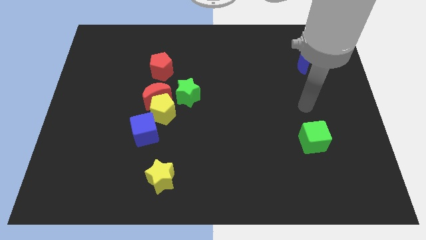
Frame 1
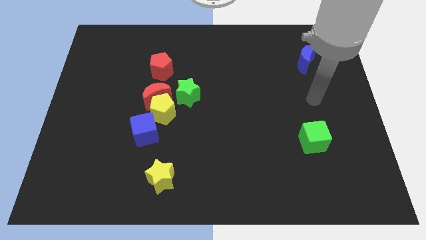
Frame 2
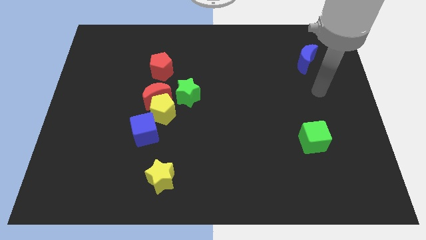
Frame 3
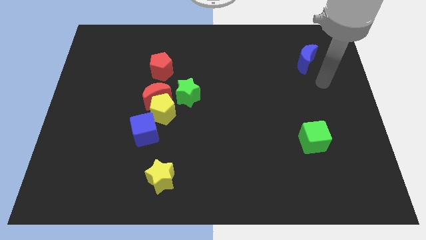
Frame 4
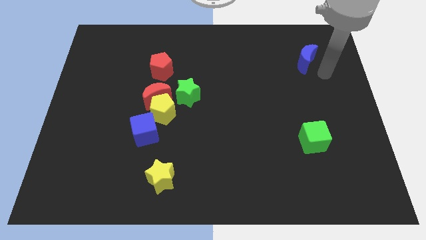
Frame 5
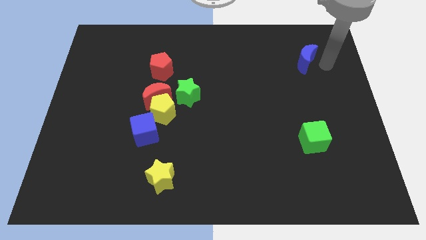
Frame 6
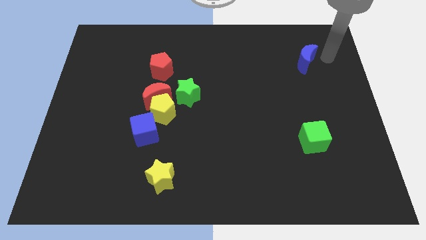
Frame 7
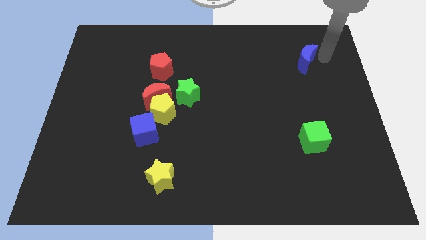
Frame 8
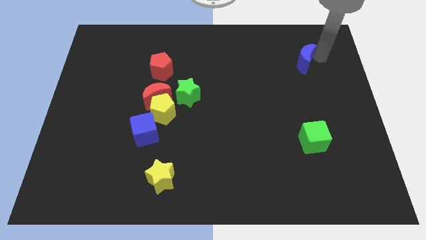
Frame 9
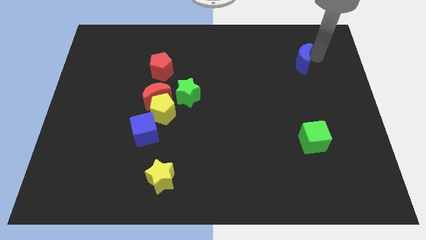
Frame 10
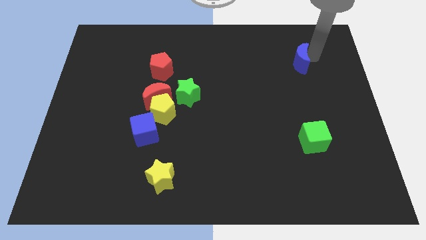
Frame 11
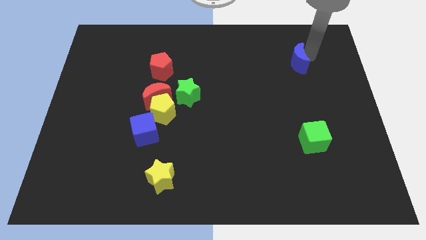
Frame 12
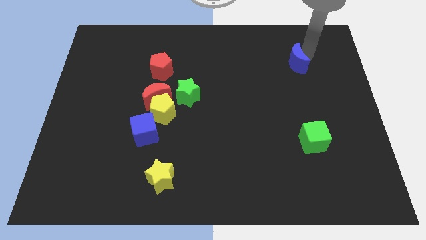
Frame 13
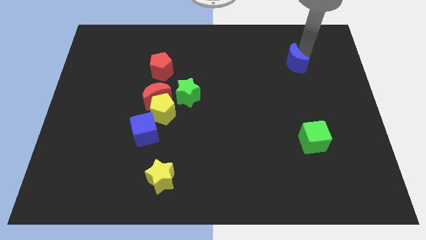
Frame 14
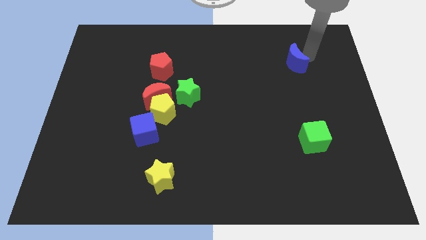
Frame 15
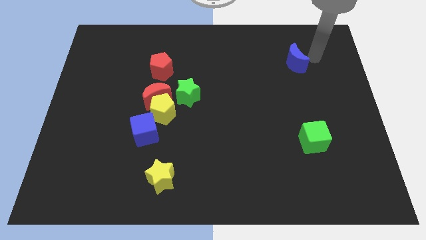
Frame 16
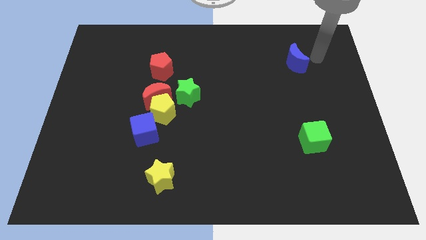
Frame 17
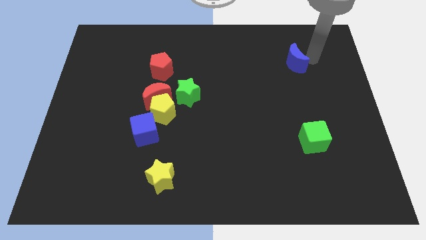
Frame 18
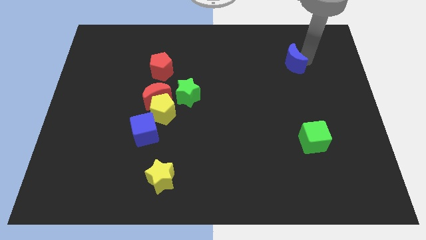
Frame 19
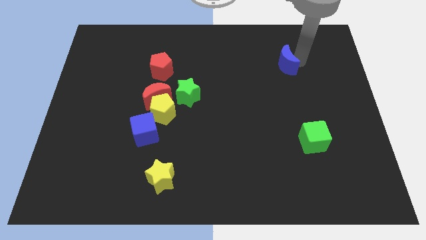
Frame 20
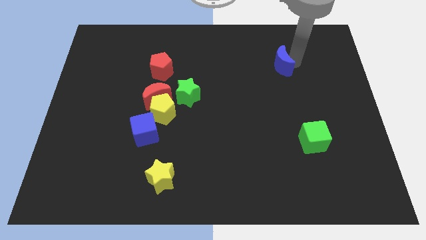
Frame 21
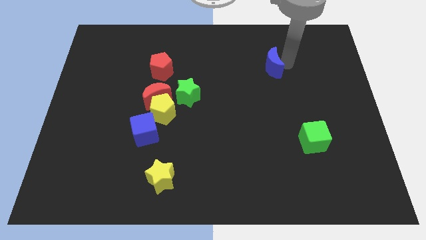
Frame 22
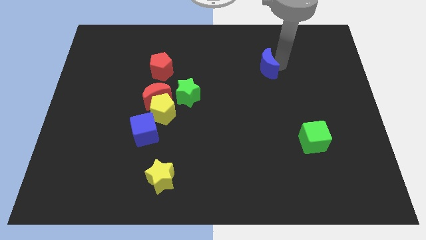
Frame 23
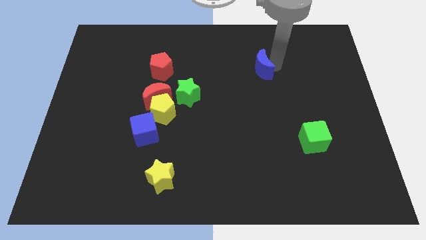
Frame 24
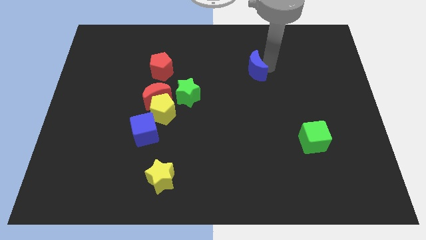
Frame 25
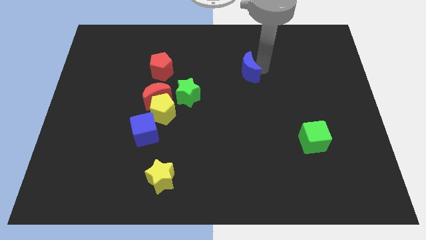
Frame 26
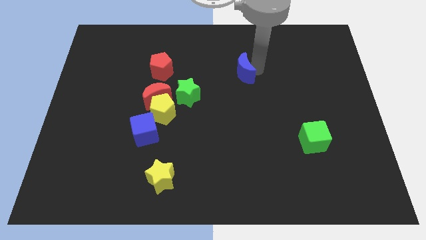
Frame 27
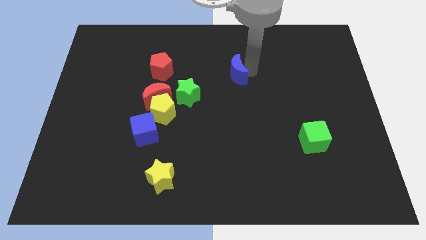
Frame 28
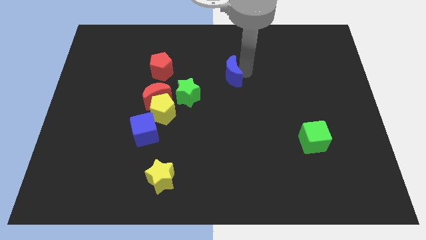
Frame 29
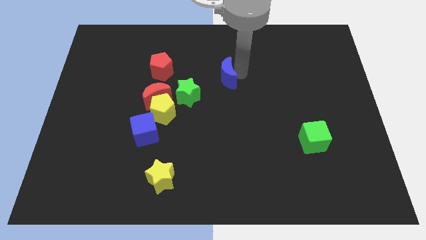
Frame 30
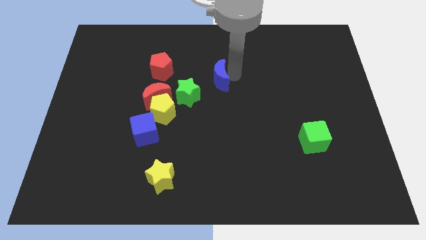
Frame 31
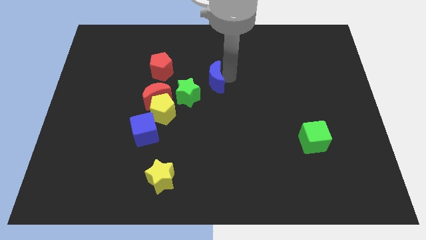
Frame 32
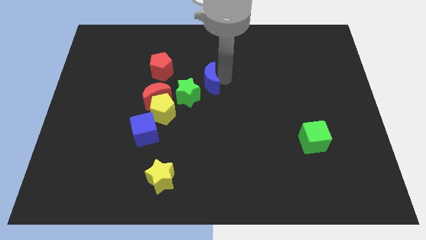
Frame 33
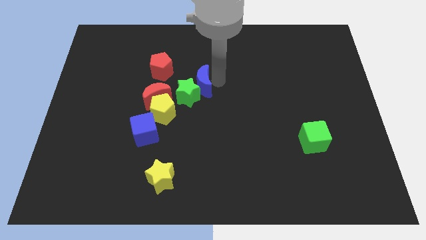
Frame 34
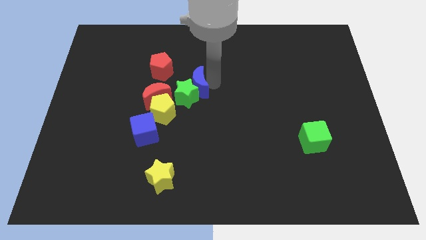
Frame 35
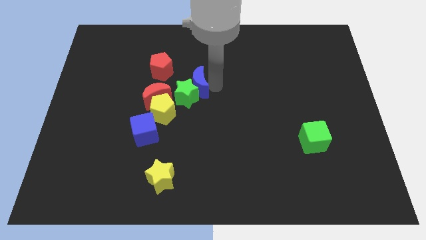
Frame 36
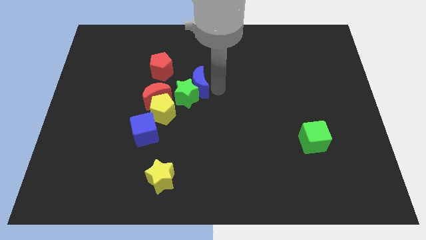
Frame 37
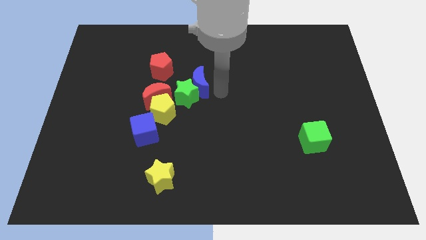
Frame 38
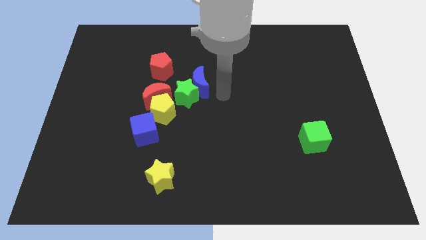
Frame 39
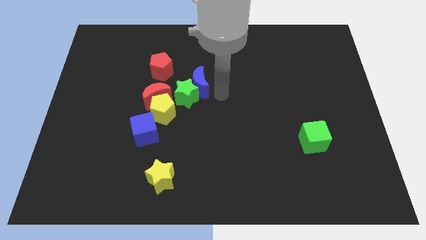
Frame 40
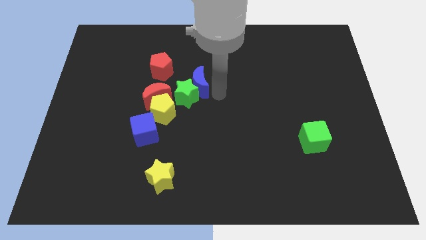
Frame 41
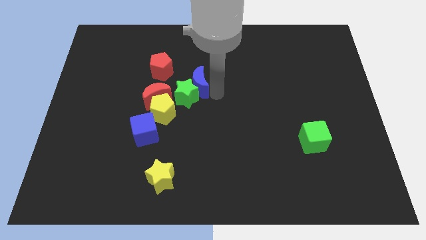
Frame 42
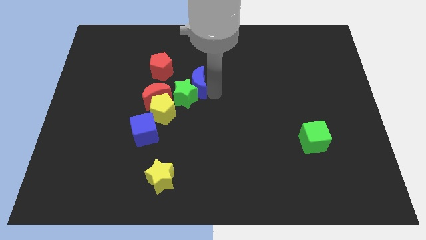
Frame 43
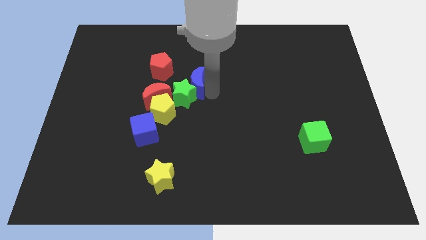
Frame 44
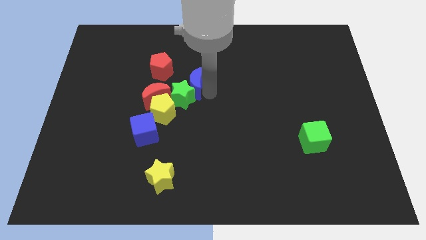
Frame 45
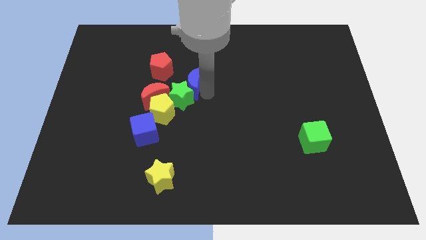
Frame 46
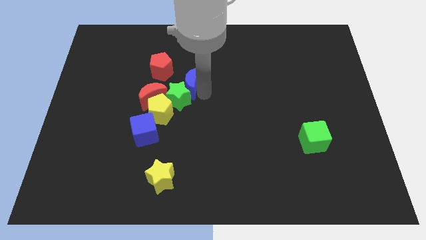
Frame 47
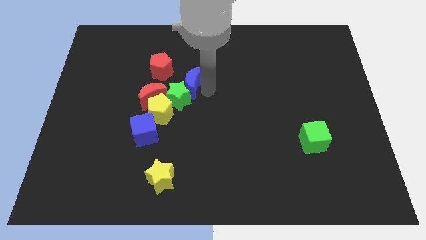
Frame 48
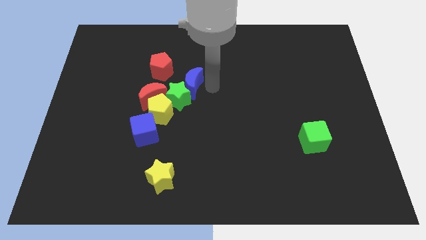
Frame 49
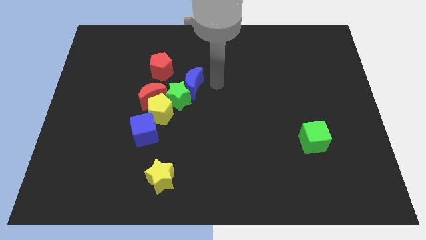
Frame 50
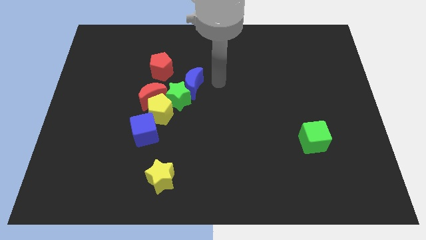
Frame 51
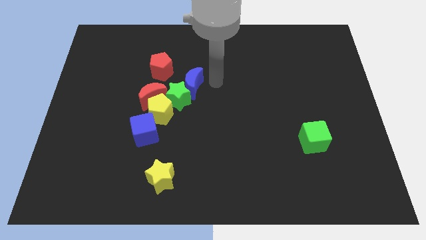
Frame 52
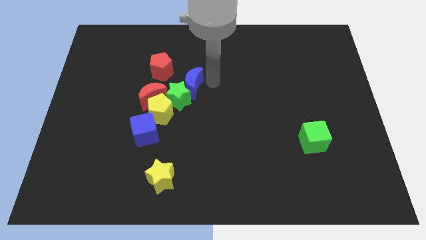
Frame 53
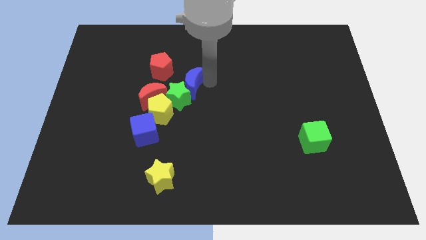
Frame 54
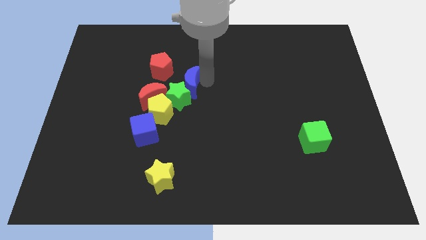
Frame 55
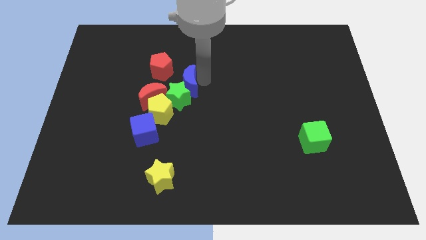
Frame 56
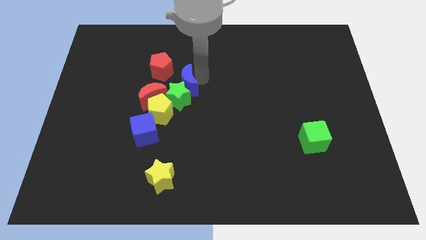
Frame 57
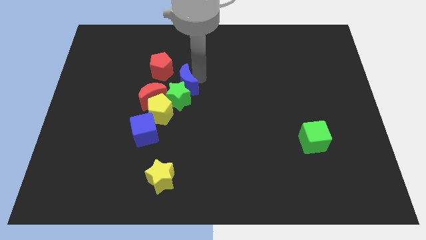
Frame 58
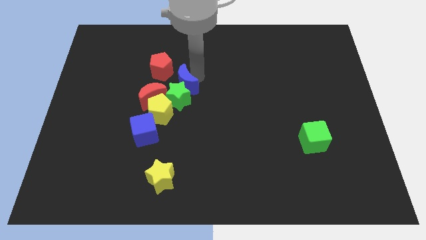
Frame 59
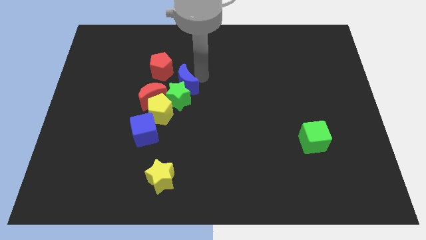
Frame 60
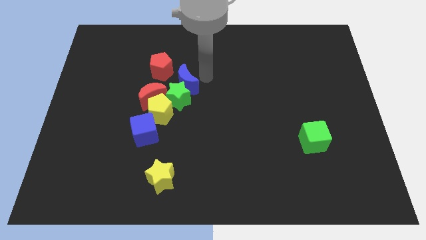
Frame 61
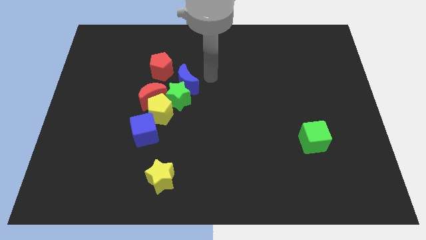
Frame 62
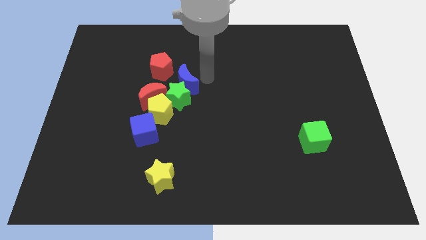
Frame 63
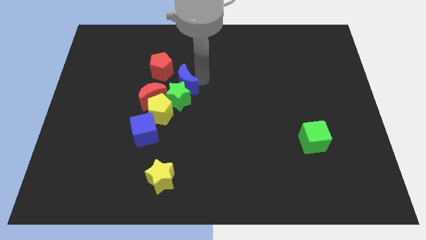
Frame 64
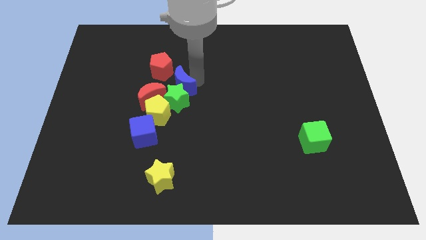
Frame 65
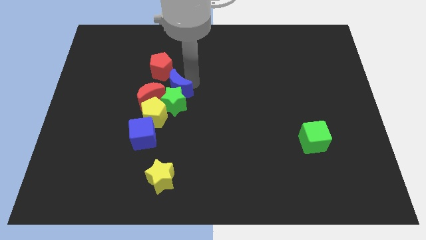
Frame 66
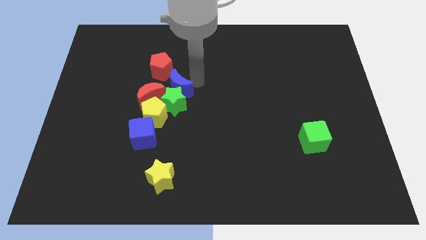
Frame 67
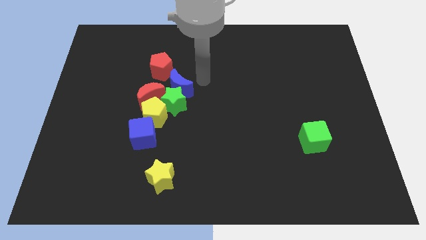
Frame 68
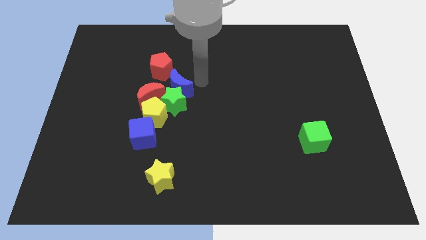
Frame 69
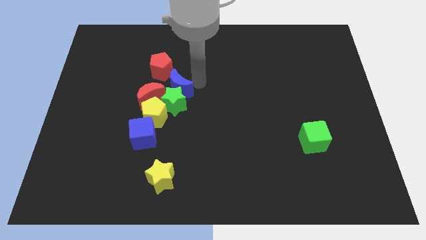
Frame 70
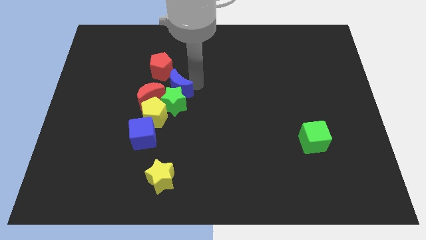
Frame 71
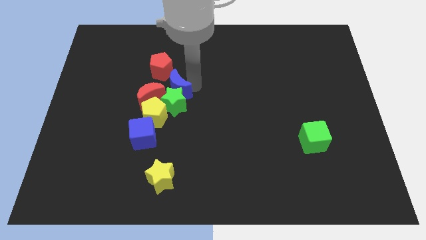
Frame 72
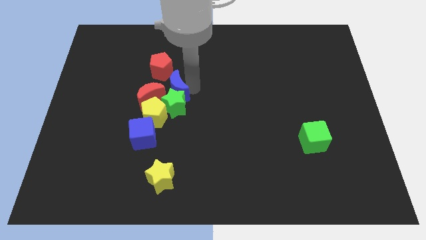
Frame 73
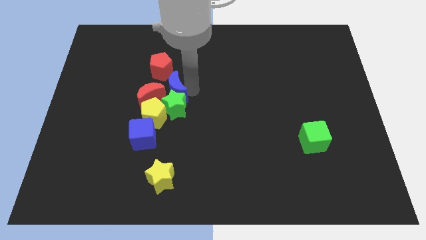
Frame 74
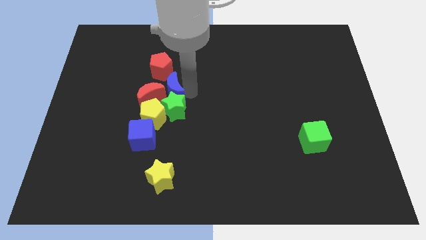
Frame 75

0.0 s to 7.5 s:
push the blue moon next to the red moon

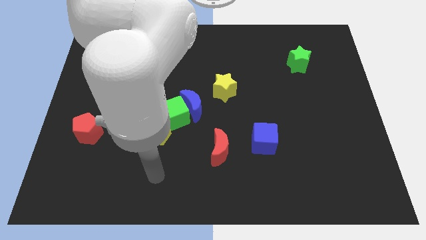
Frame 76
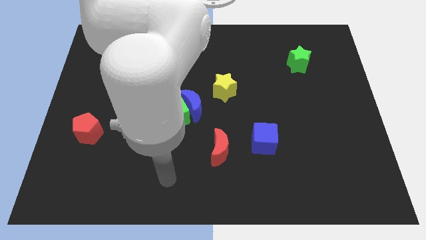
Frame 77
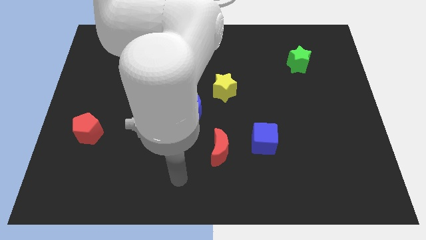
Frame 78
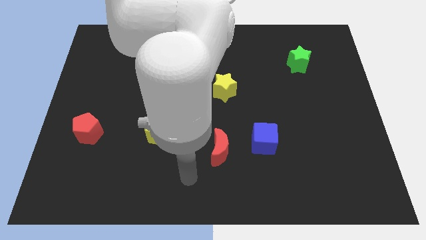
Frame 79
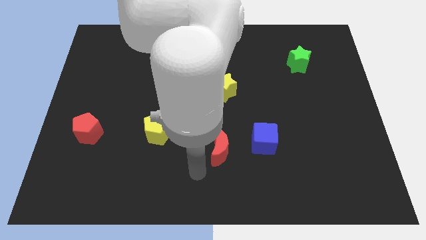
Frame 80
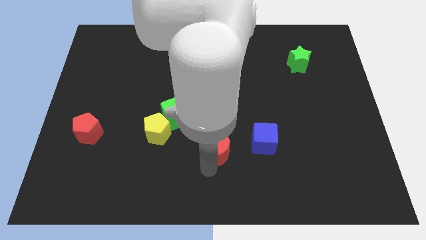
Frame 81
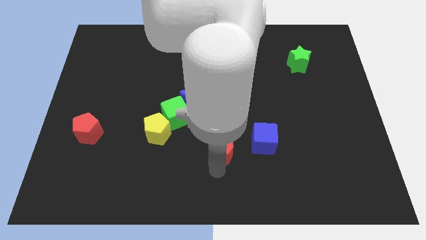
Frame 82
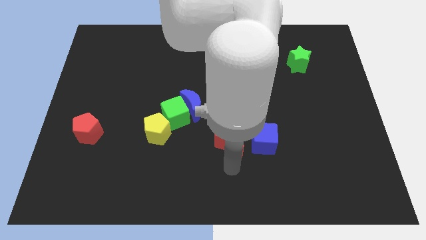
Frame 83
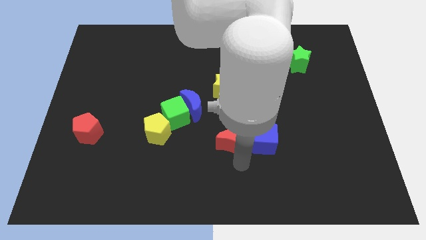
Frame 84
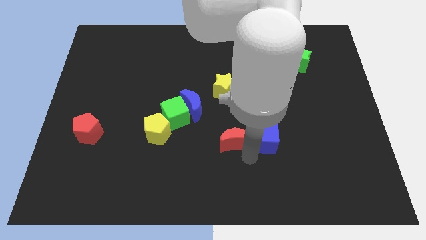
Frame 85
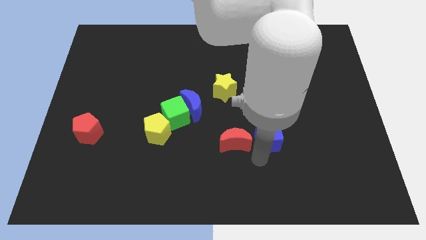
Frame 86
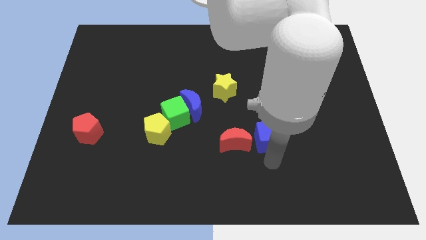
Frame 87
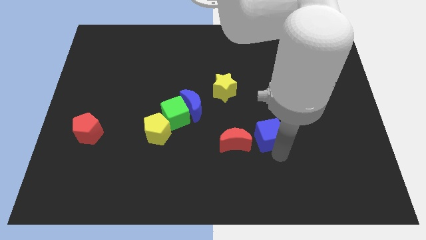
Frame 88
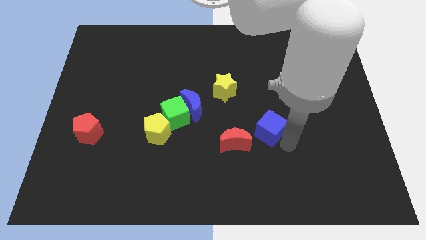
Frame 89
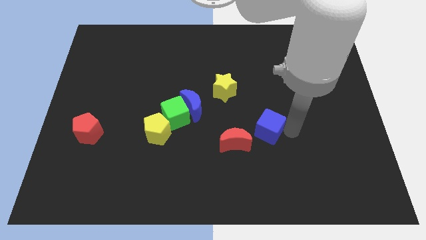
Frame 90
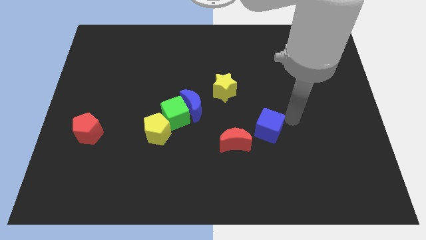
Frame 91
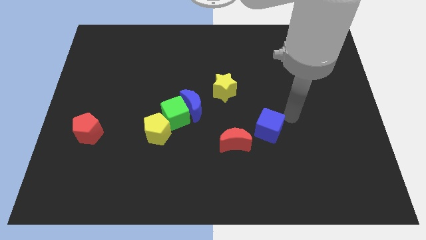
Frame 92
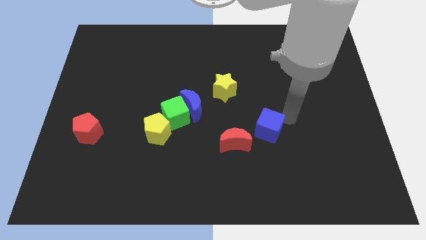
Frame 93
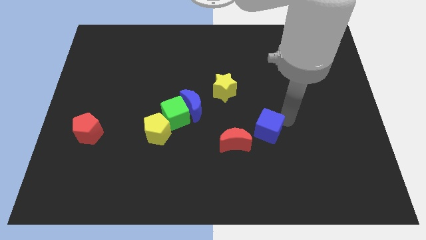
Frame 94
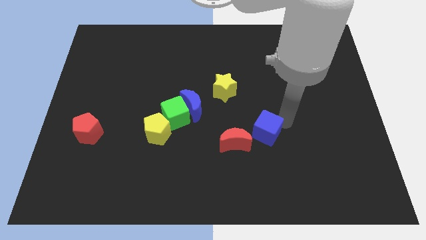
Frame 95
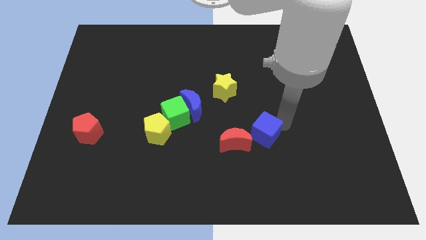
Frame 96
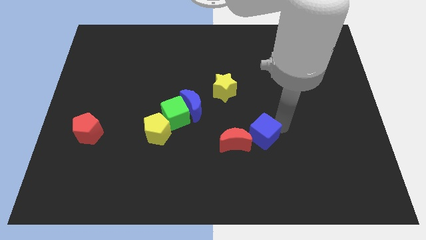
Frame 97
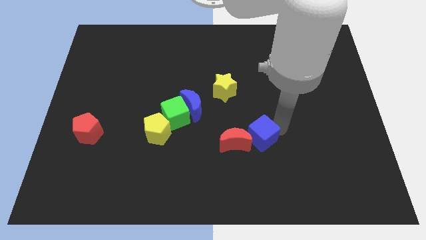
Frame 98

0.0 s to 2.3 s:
push the blue cube next to the red moon
